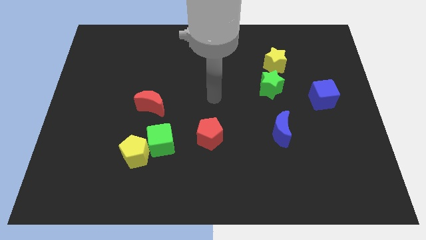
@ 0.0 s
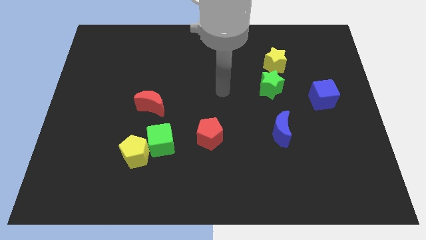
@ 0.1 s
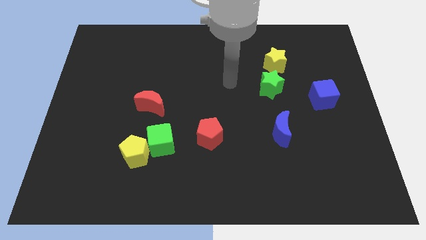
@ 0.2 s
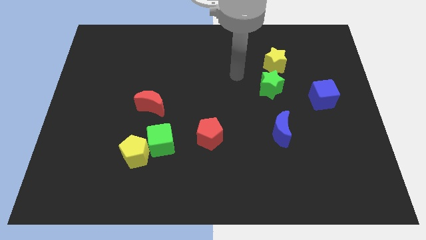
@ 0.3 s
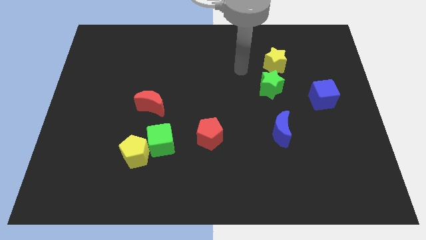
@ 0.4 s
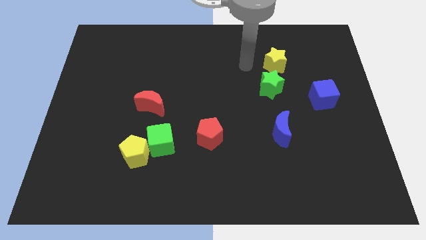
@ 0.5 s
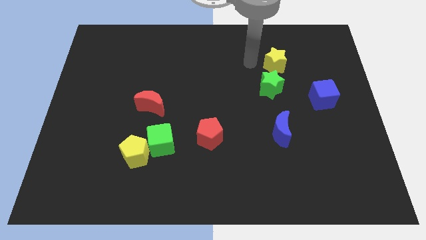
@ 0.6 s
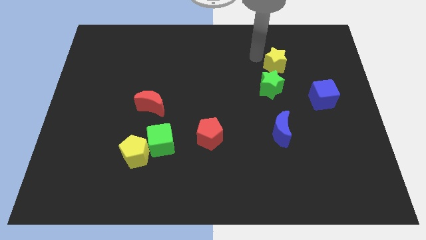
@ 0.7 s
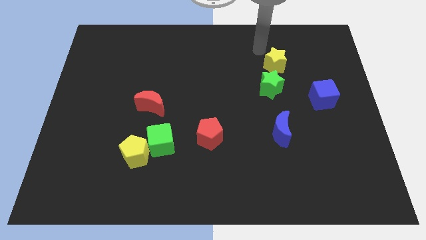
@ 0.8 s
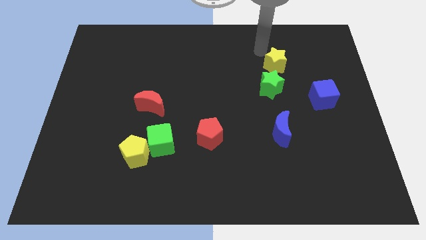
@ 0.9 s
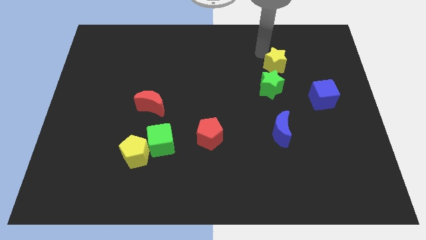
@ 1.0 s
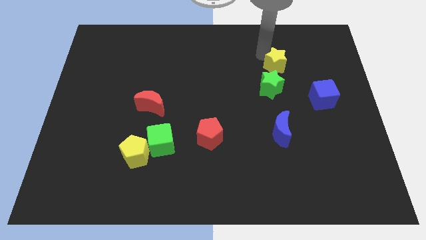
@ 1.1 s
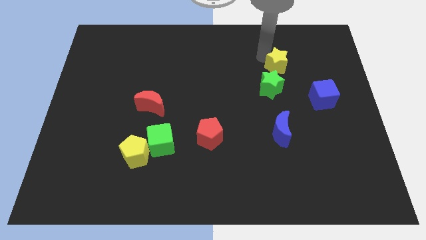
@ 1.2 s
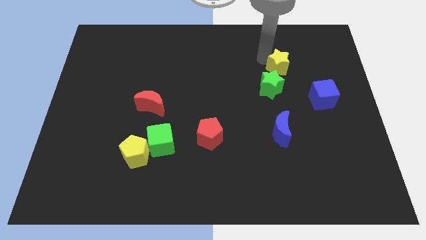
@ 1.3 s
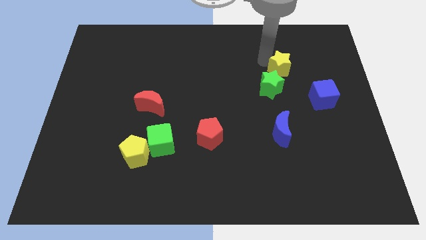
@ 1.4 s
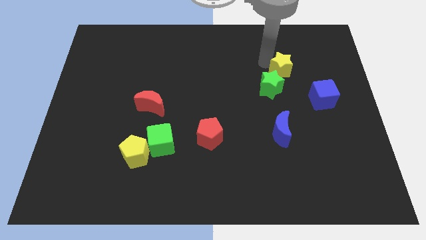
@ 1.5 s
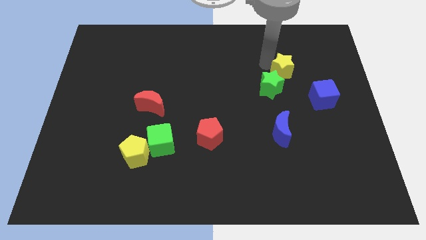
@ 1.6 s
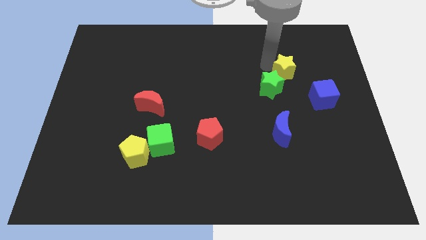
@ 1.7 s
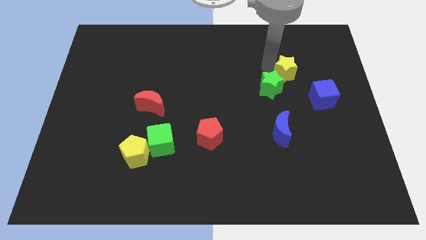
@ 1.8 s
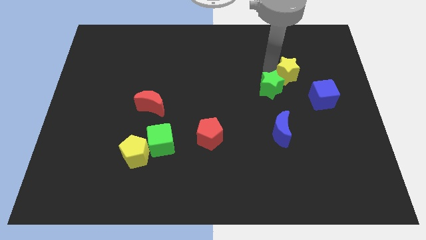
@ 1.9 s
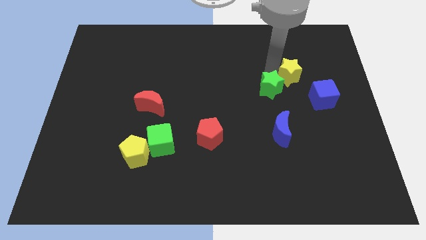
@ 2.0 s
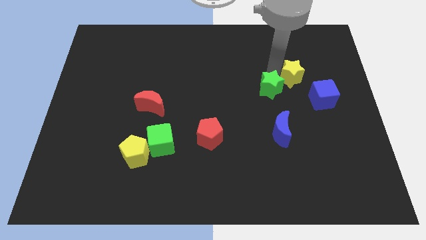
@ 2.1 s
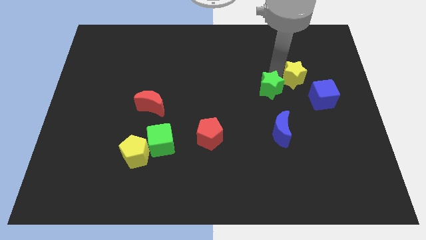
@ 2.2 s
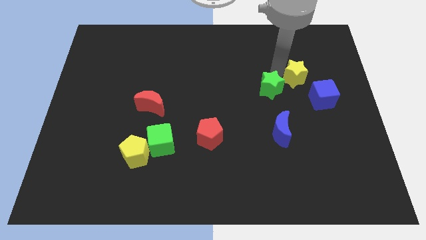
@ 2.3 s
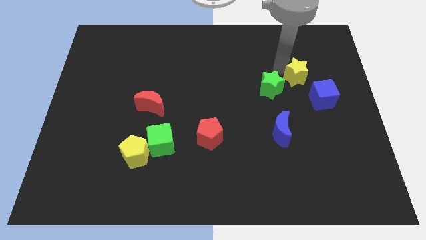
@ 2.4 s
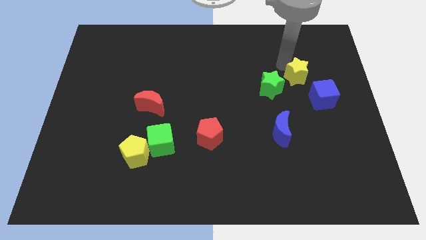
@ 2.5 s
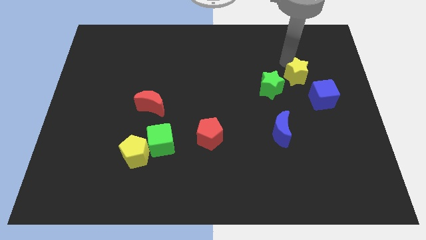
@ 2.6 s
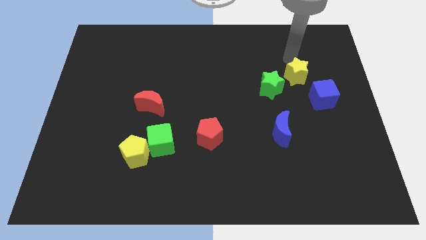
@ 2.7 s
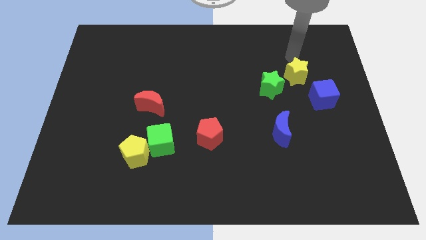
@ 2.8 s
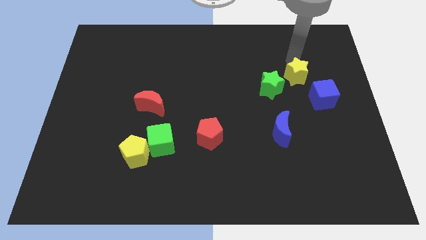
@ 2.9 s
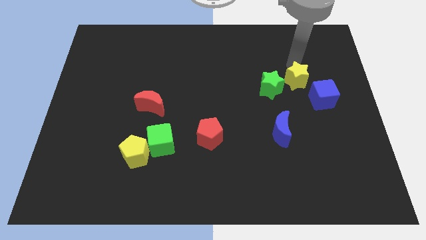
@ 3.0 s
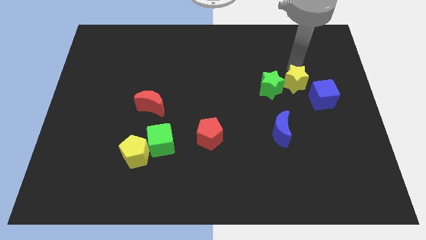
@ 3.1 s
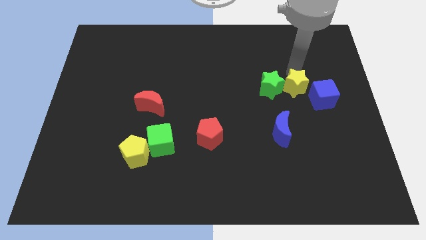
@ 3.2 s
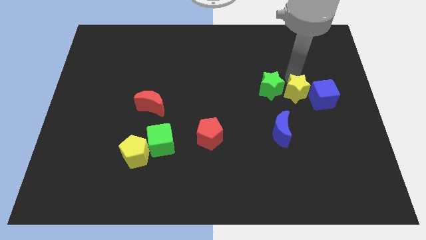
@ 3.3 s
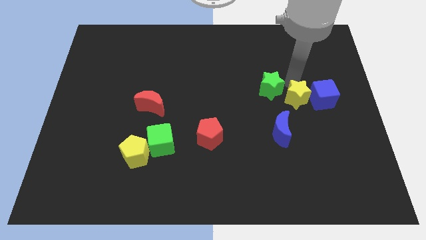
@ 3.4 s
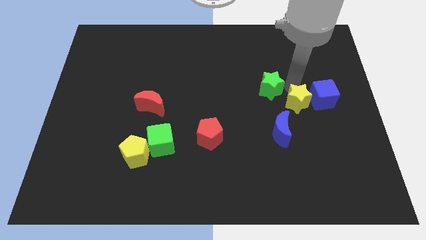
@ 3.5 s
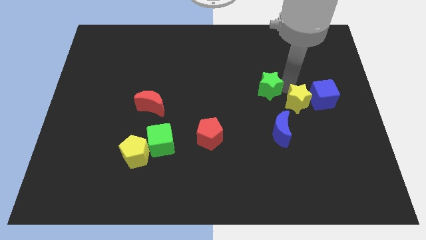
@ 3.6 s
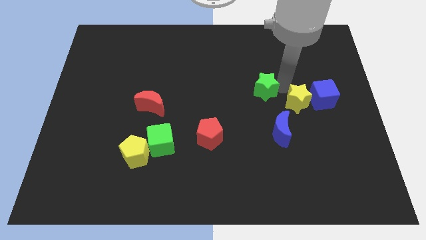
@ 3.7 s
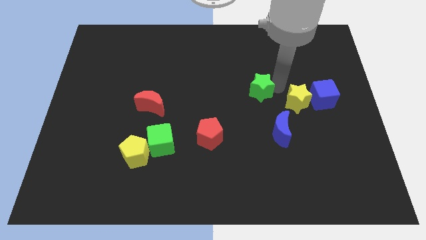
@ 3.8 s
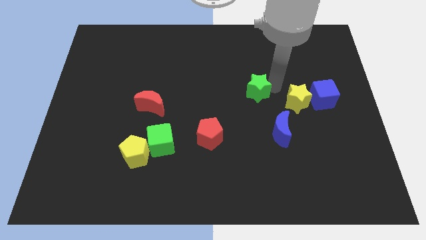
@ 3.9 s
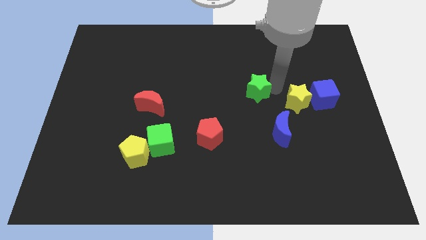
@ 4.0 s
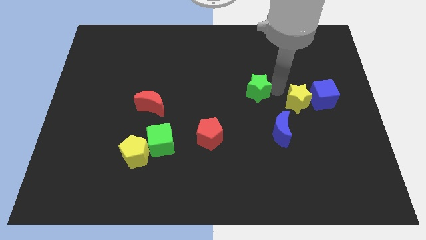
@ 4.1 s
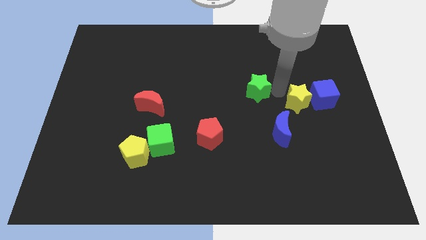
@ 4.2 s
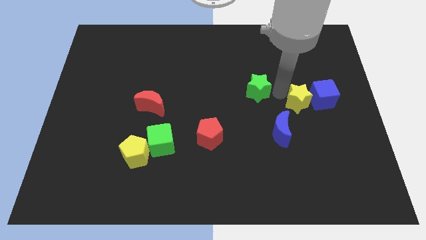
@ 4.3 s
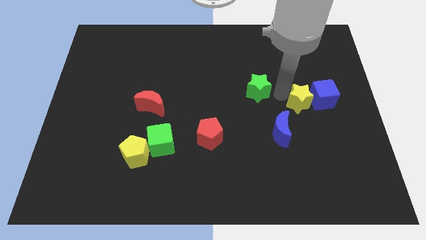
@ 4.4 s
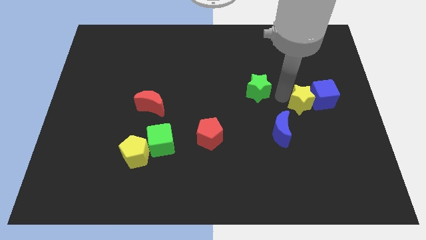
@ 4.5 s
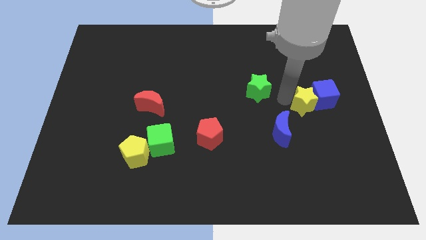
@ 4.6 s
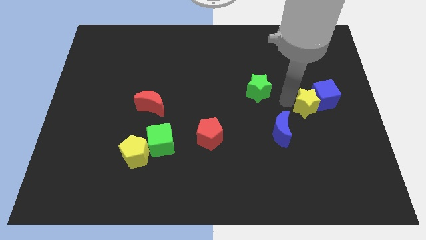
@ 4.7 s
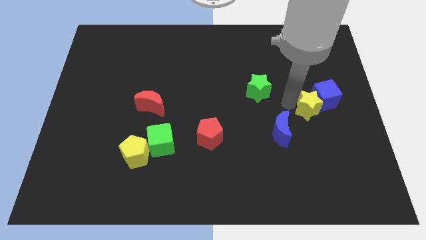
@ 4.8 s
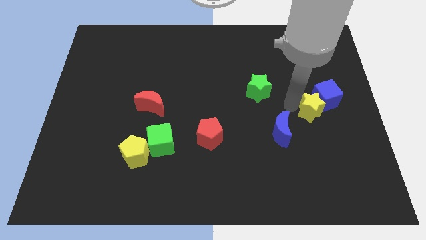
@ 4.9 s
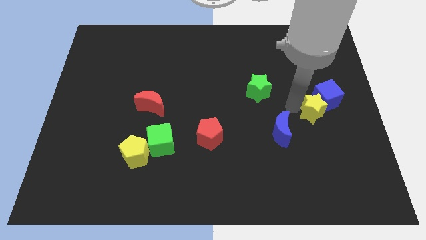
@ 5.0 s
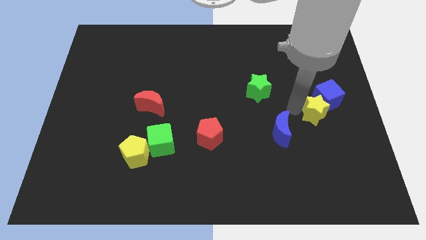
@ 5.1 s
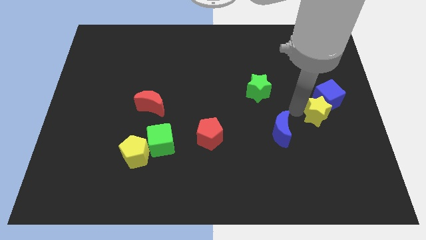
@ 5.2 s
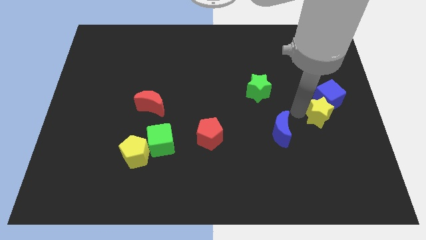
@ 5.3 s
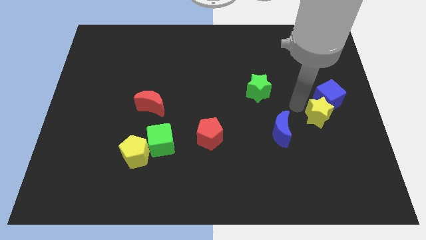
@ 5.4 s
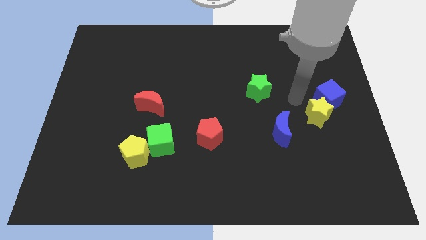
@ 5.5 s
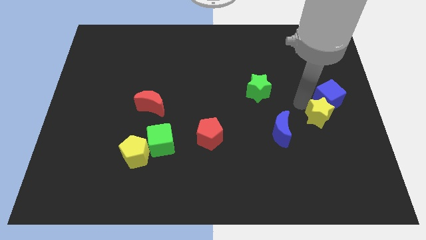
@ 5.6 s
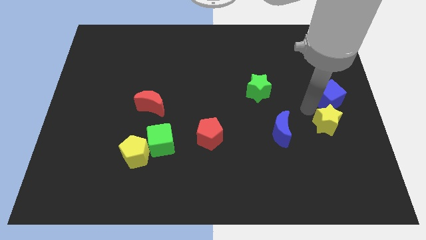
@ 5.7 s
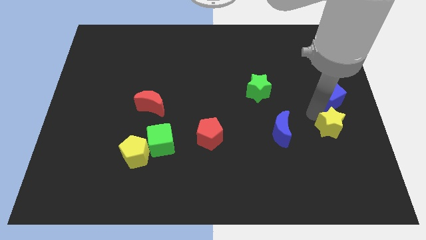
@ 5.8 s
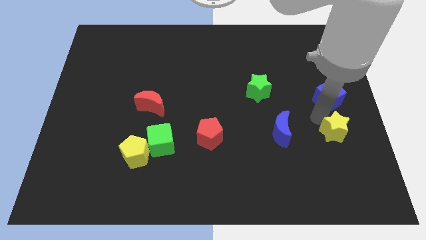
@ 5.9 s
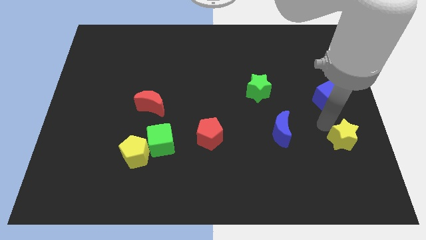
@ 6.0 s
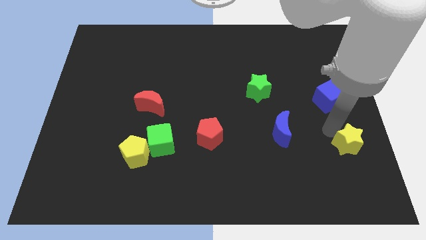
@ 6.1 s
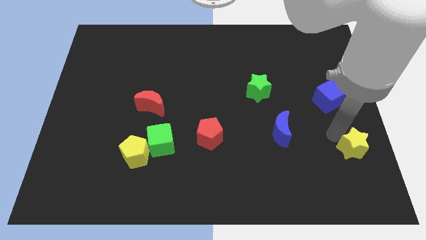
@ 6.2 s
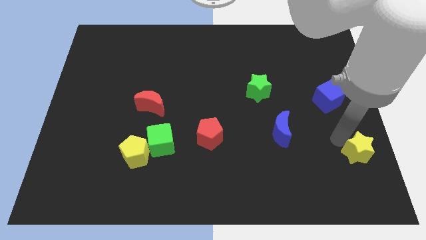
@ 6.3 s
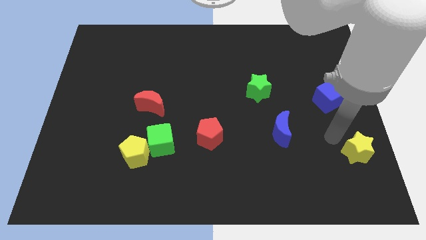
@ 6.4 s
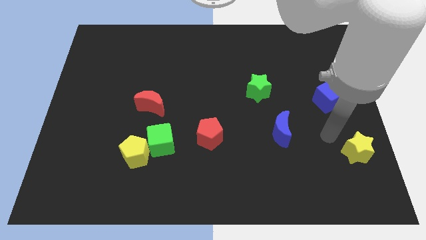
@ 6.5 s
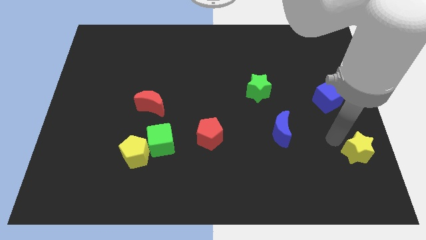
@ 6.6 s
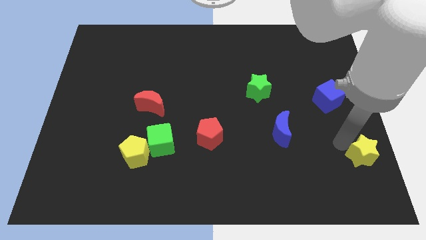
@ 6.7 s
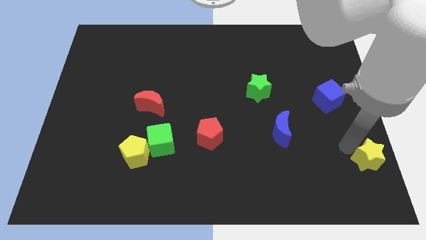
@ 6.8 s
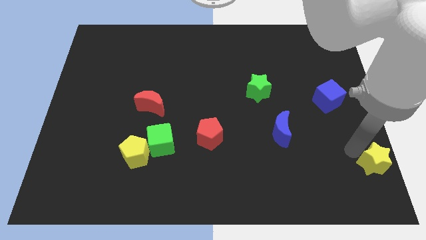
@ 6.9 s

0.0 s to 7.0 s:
slide the yellow star to the lower right corner

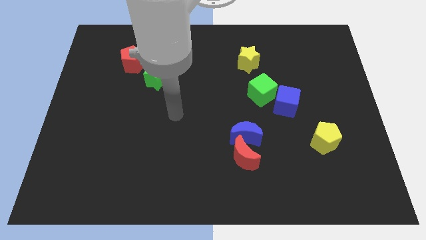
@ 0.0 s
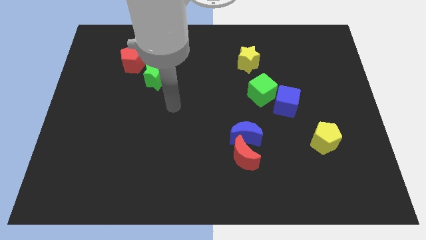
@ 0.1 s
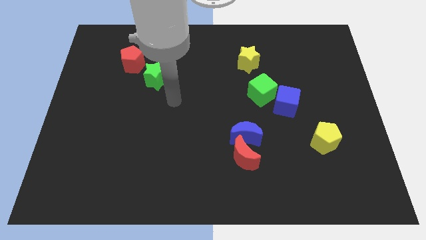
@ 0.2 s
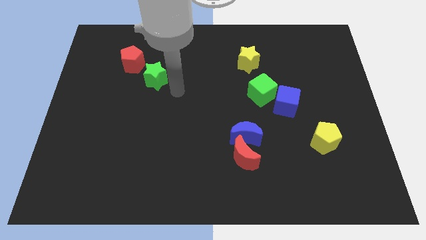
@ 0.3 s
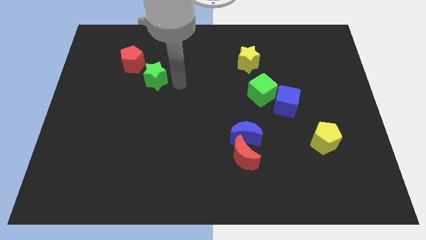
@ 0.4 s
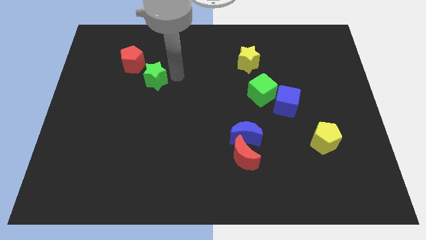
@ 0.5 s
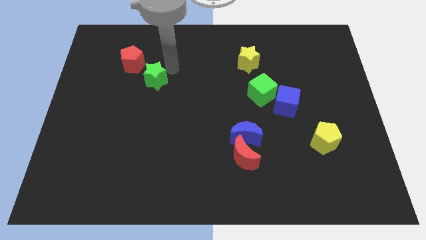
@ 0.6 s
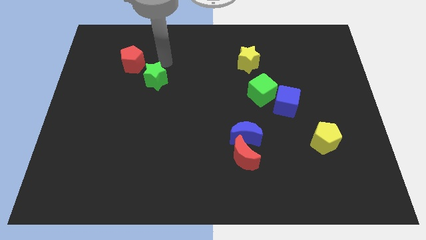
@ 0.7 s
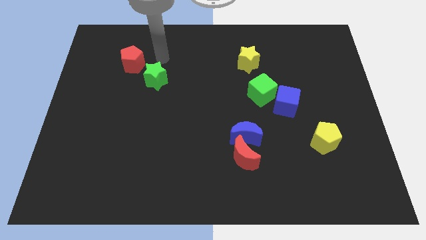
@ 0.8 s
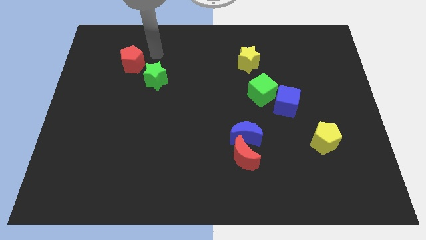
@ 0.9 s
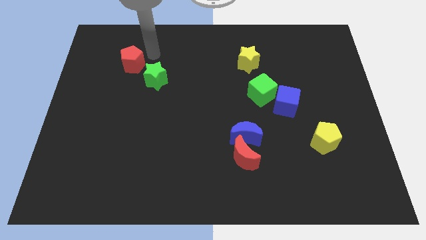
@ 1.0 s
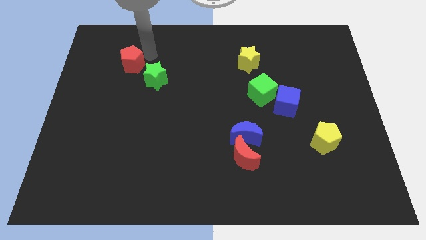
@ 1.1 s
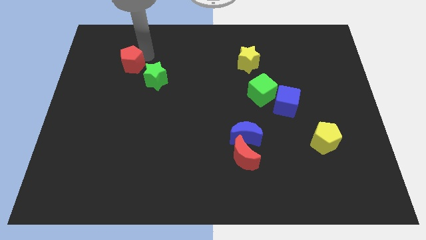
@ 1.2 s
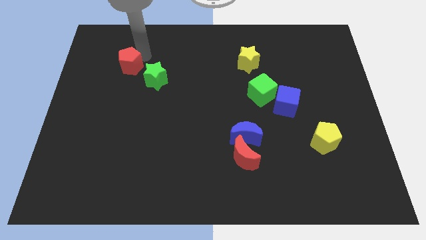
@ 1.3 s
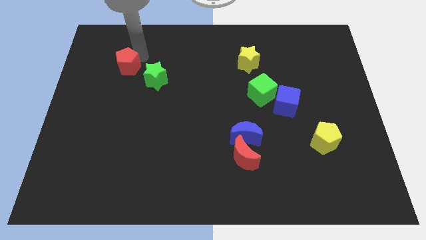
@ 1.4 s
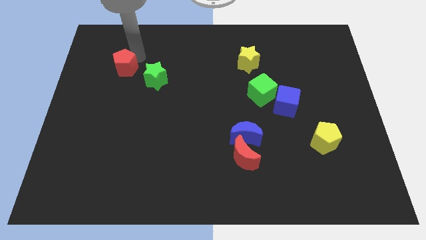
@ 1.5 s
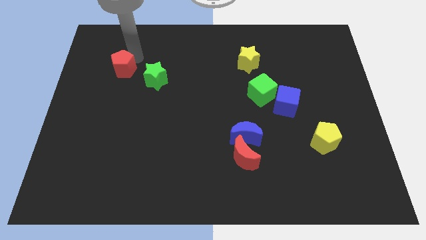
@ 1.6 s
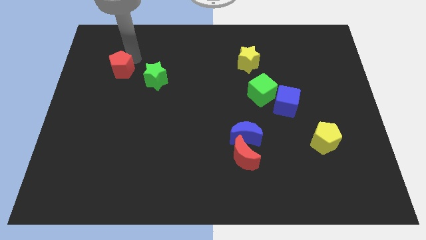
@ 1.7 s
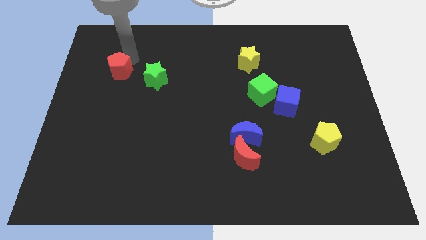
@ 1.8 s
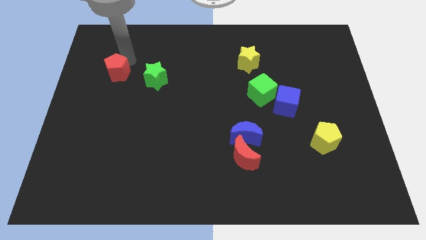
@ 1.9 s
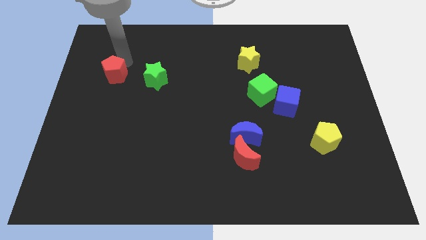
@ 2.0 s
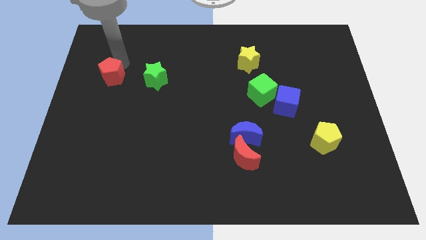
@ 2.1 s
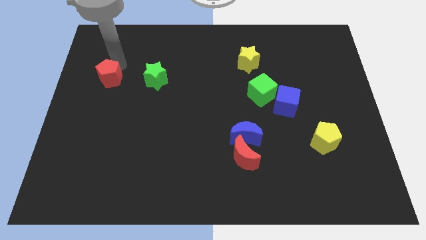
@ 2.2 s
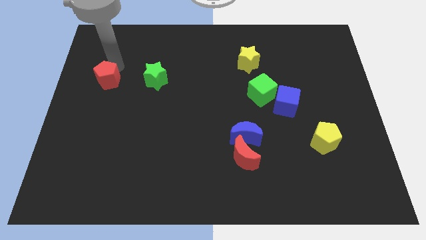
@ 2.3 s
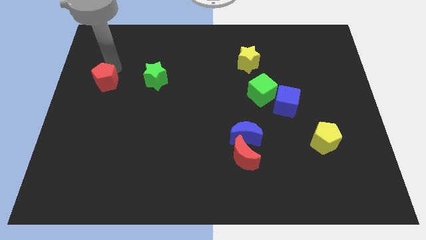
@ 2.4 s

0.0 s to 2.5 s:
push the red pentagon to the left side of the board
